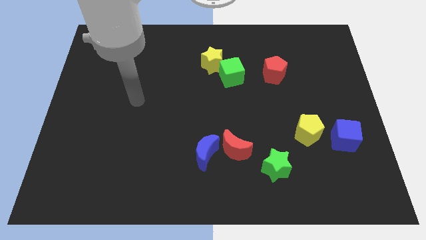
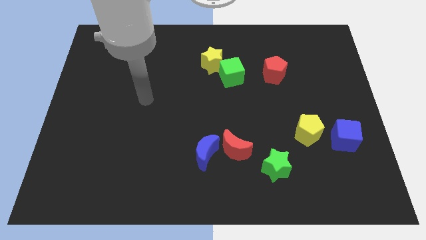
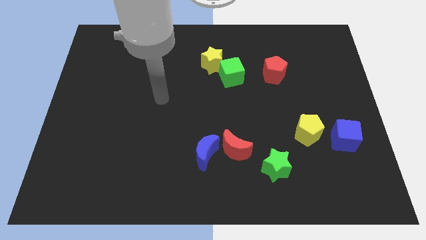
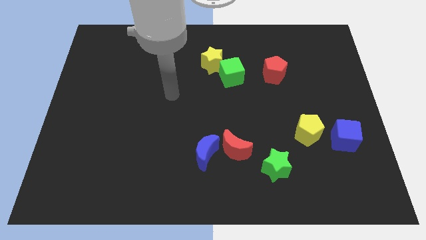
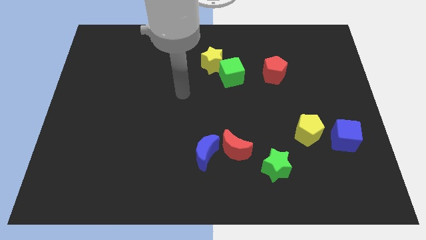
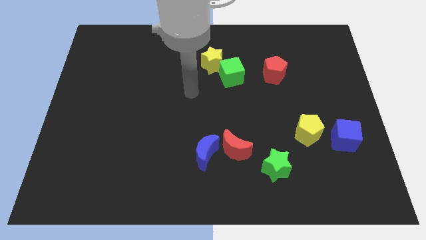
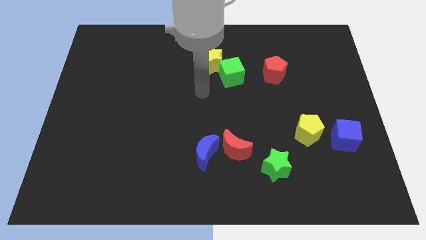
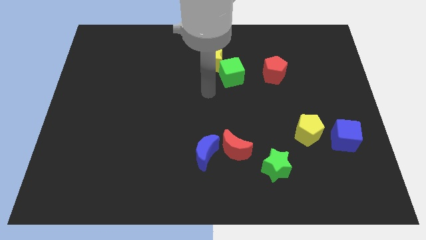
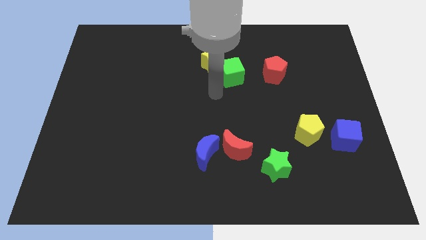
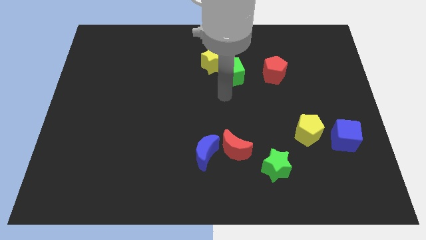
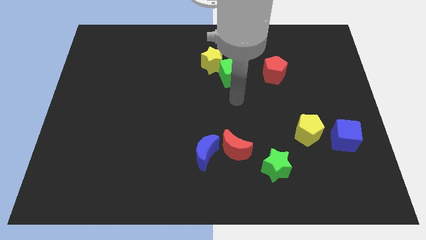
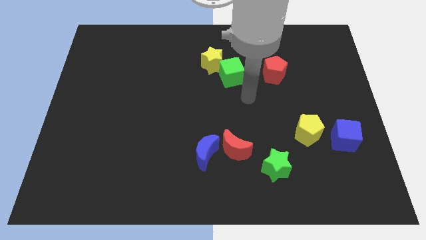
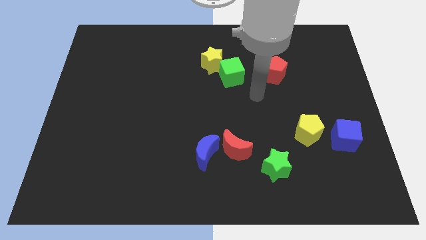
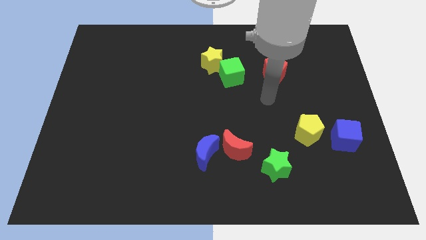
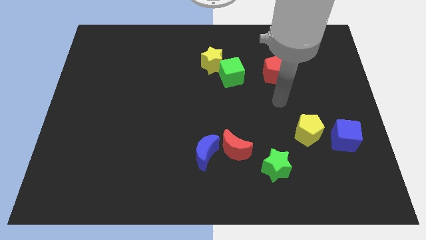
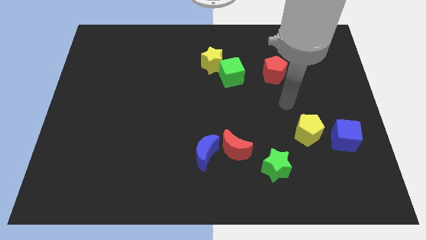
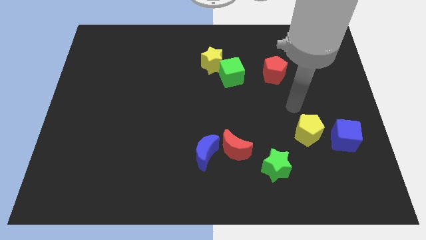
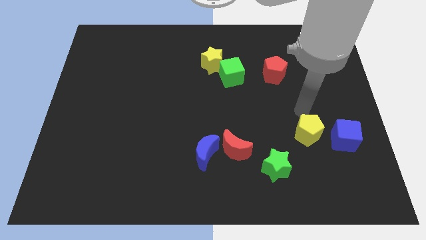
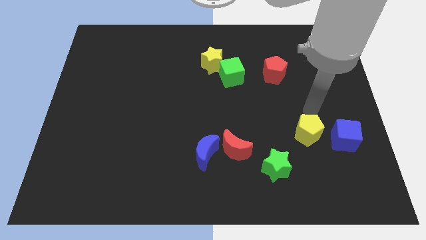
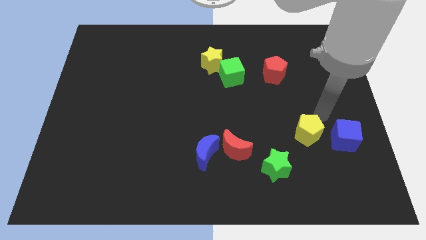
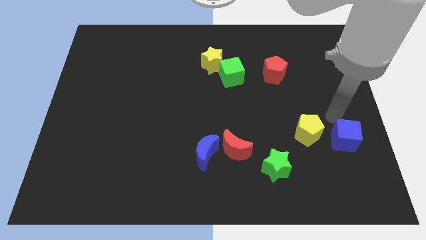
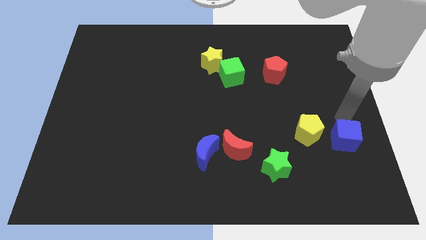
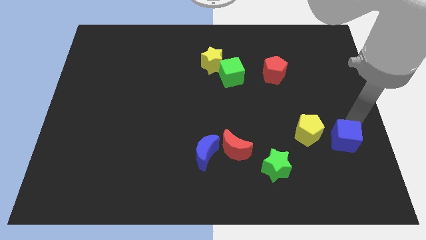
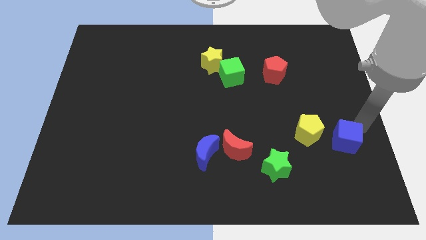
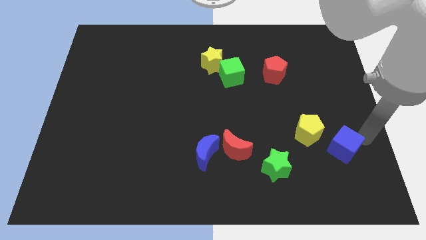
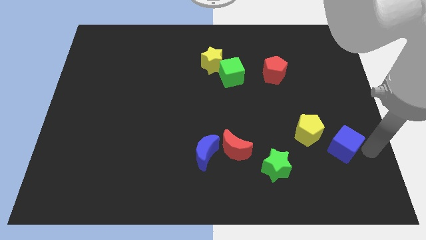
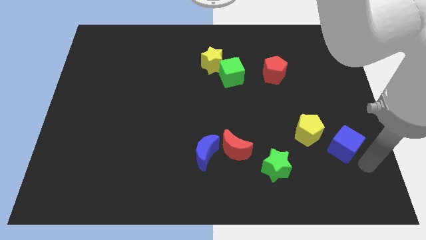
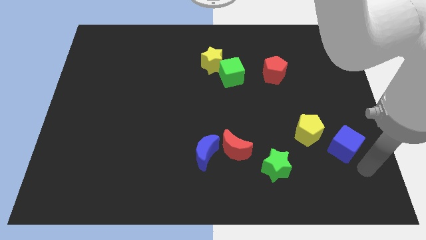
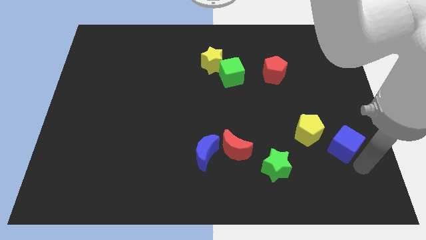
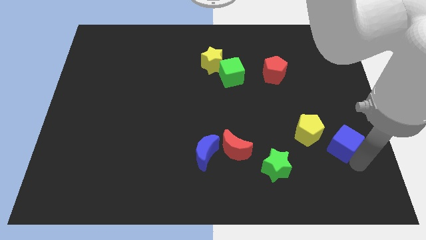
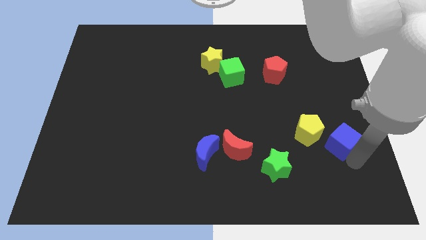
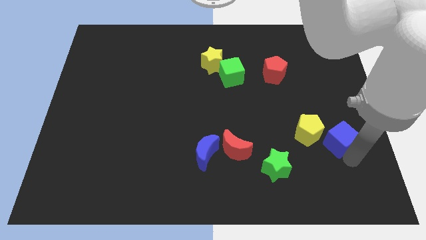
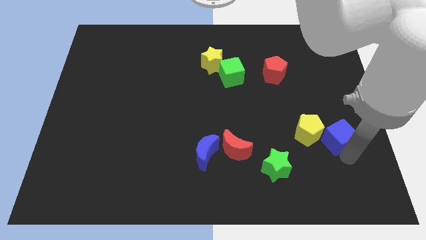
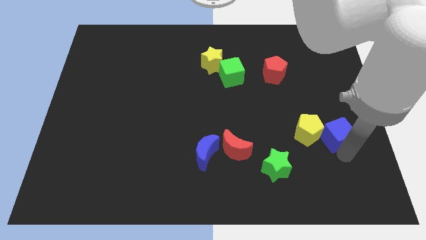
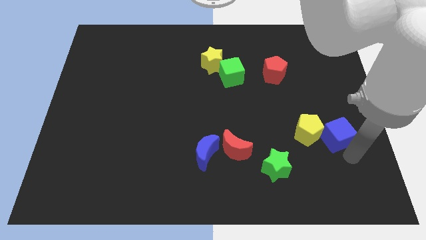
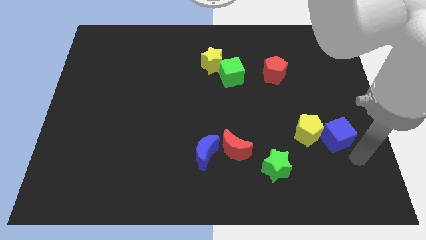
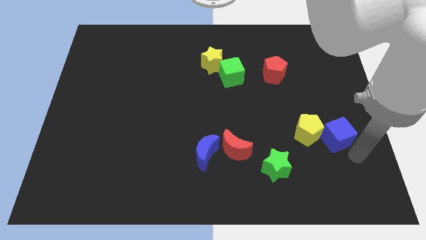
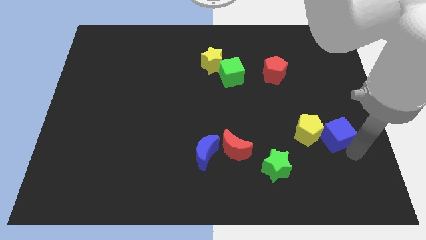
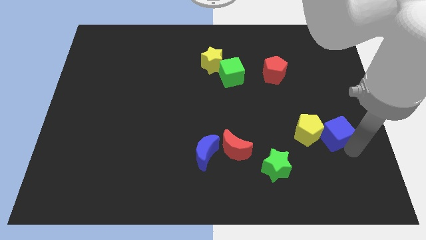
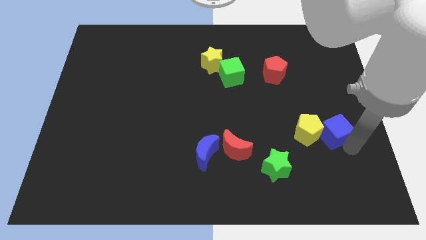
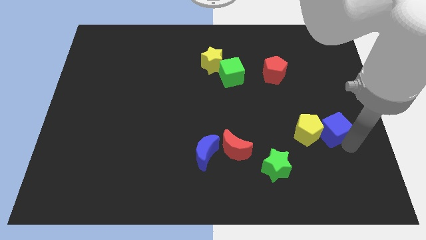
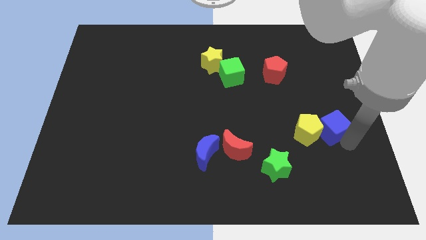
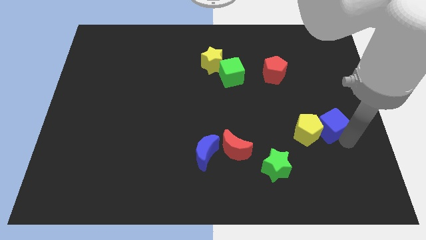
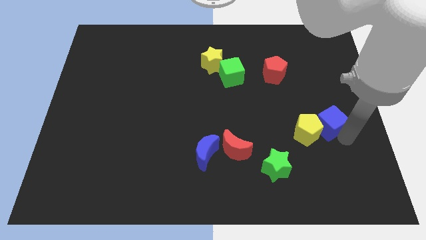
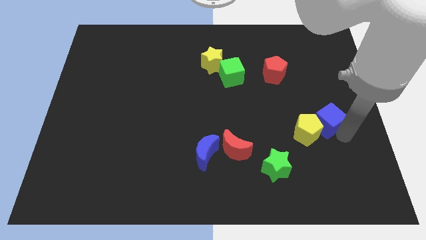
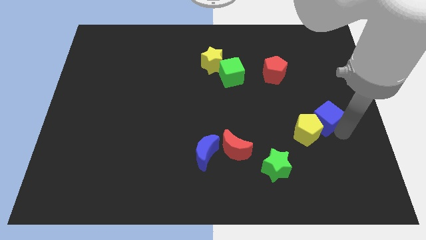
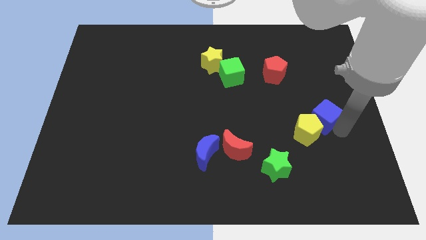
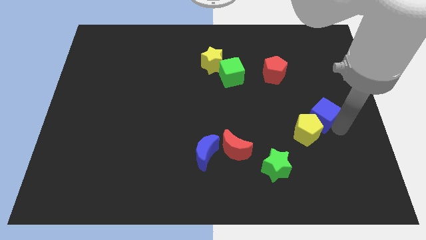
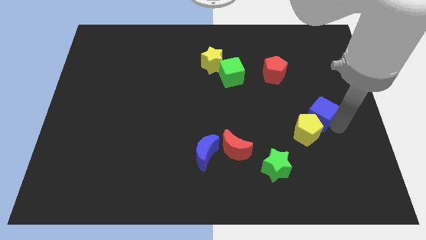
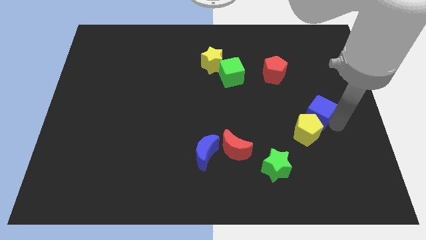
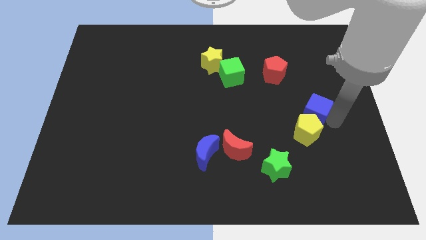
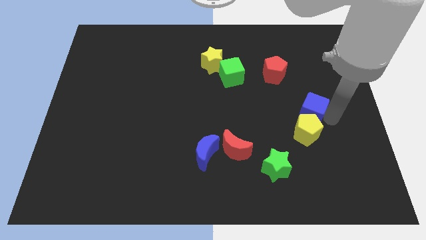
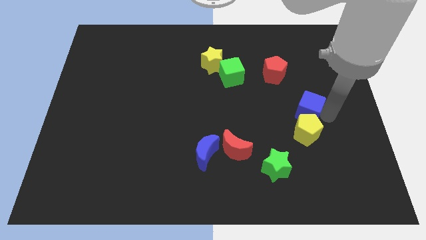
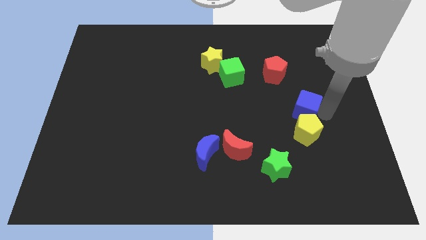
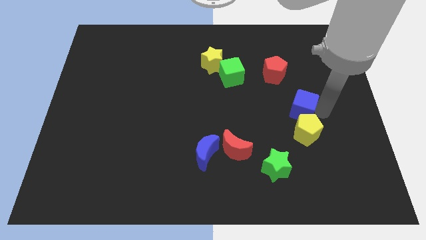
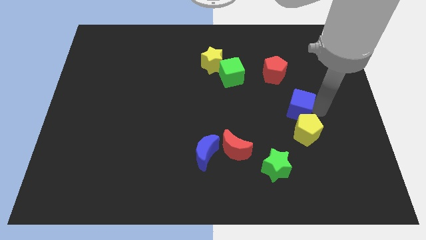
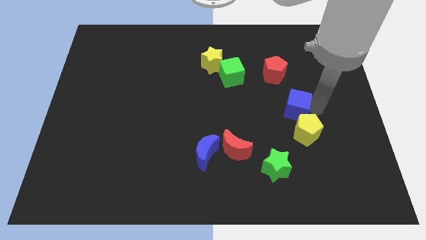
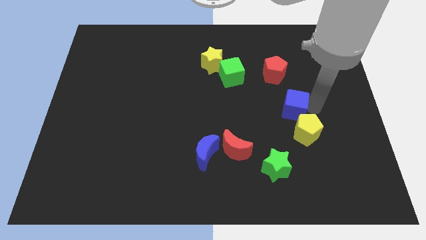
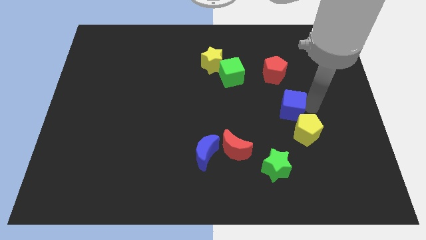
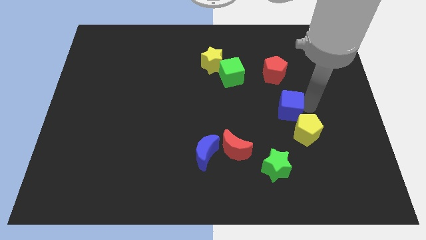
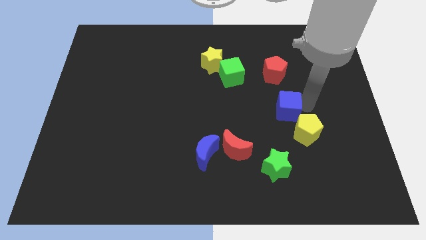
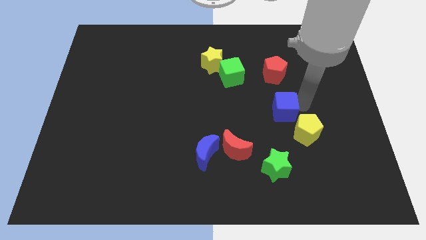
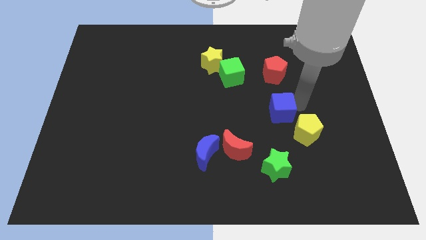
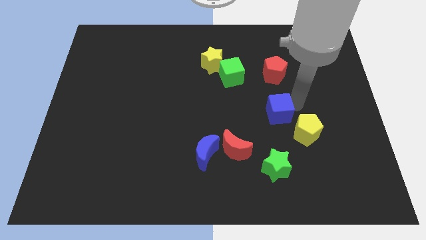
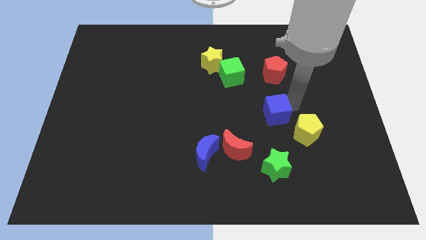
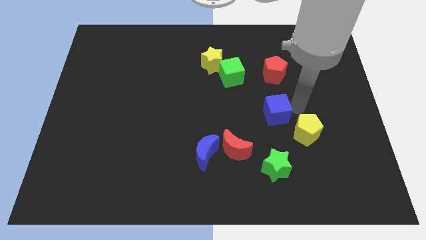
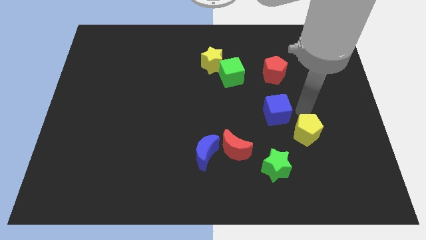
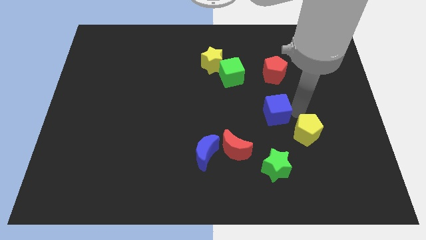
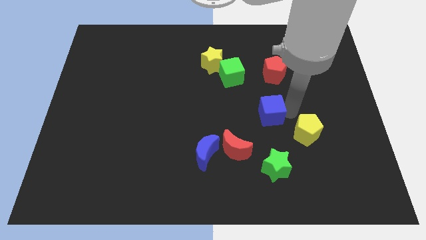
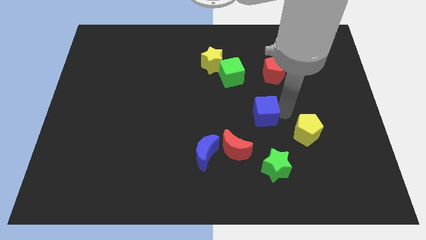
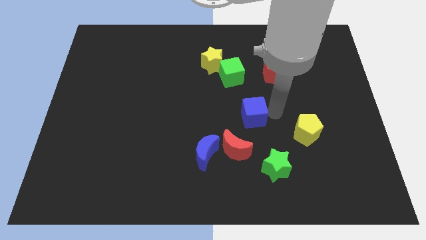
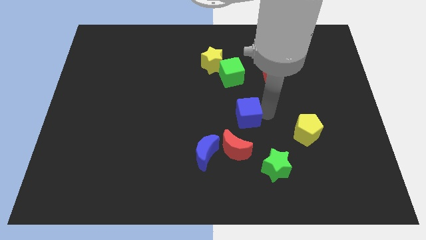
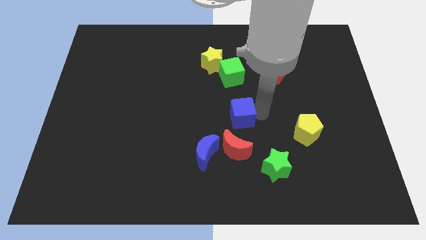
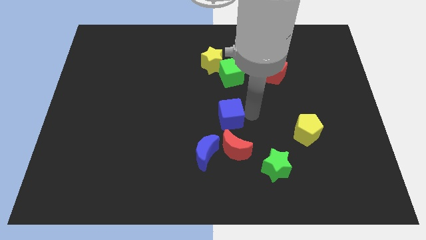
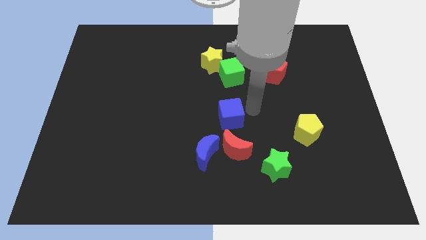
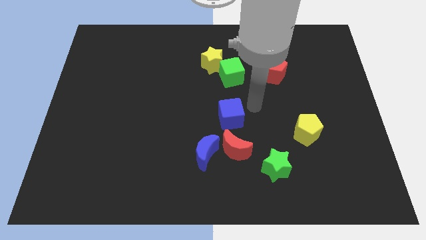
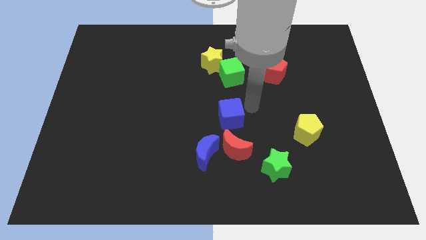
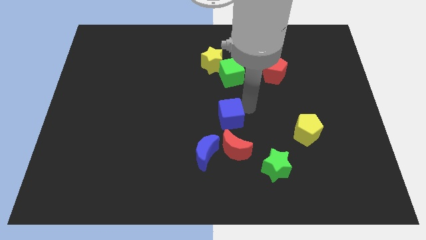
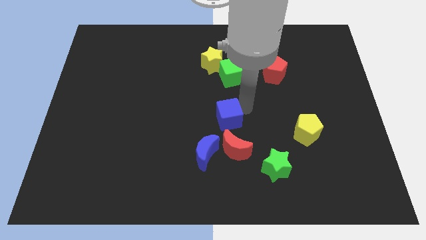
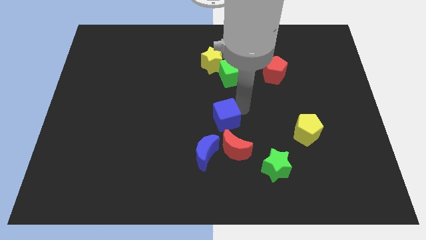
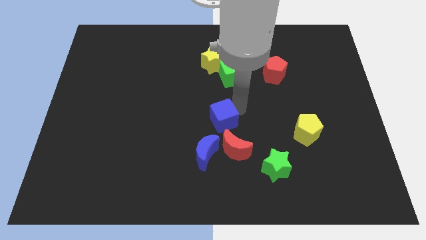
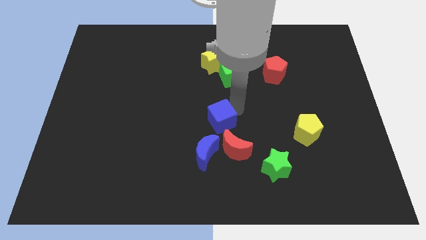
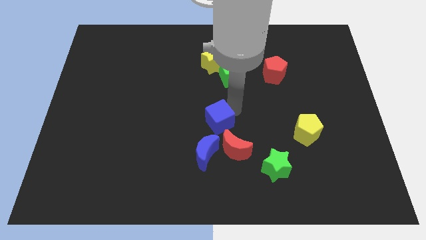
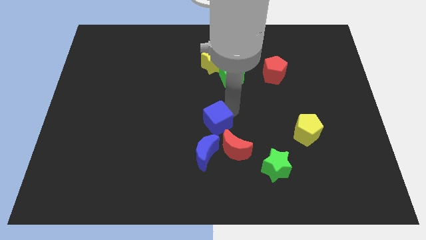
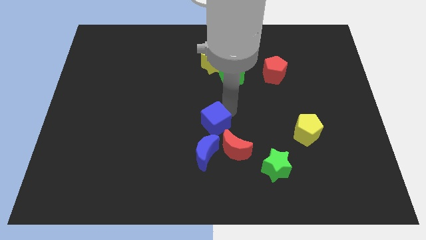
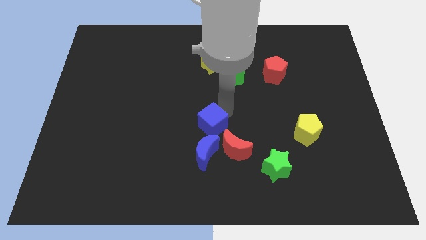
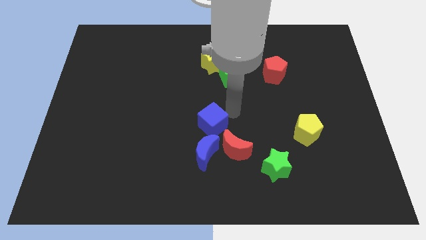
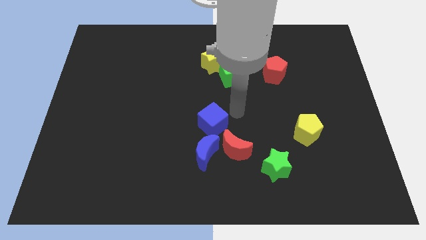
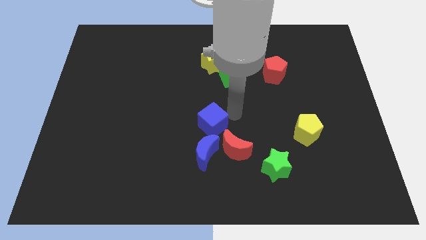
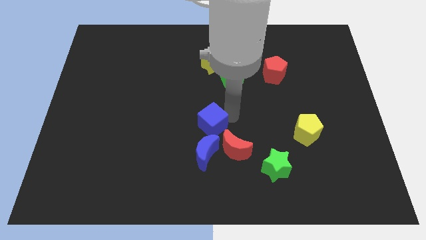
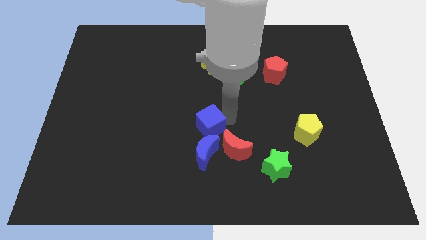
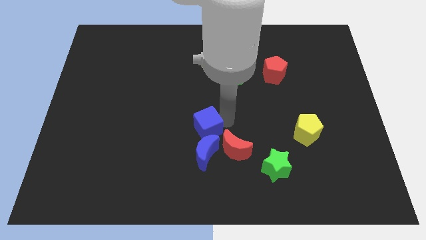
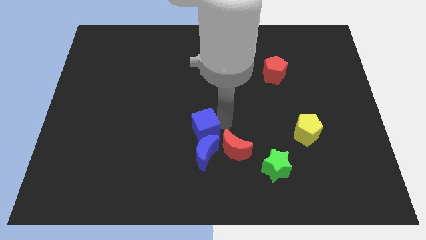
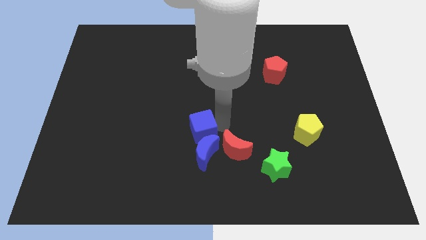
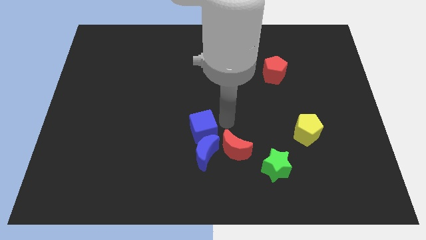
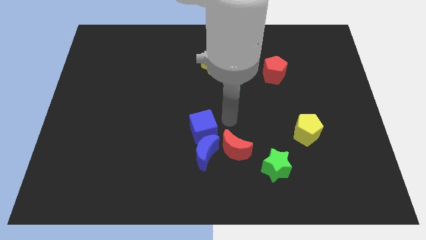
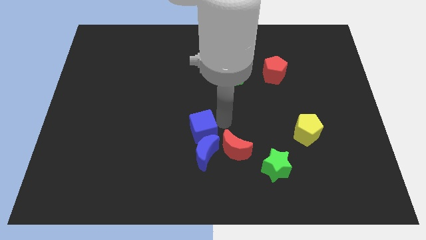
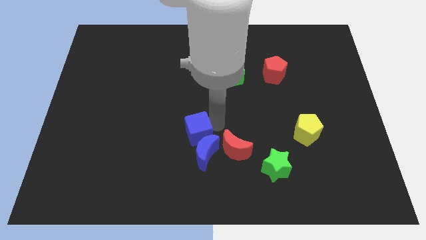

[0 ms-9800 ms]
put the blue cube just left of the red moon
